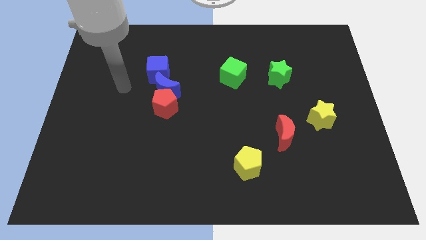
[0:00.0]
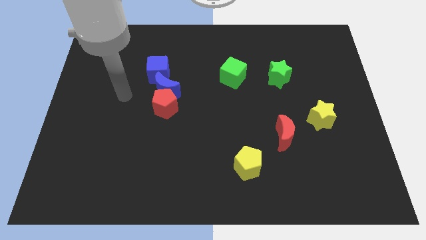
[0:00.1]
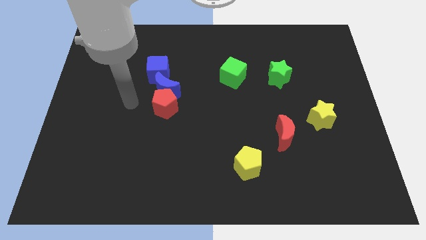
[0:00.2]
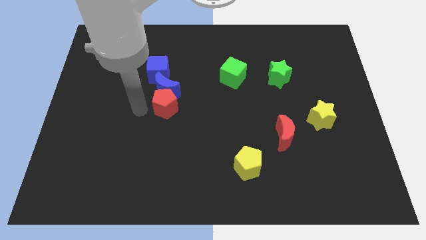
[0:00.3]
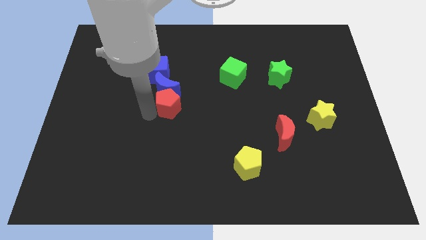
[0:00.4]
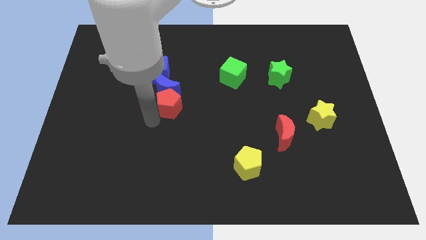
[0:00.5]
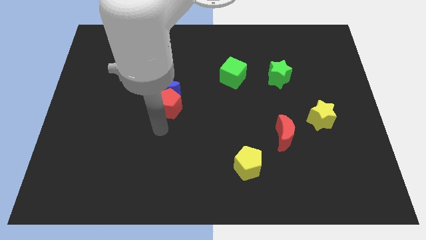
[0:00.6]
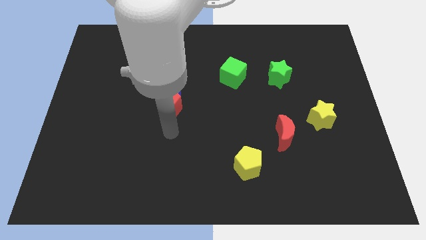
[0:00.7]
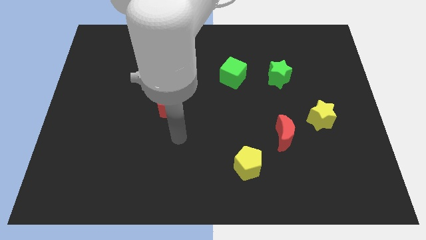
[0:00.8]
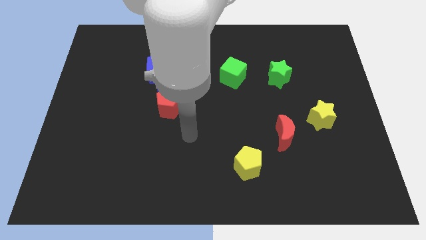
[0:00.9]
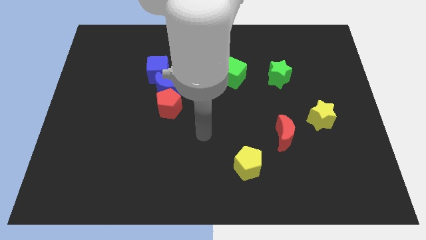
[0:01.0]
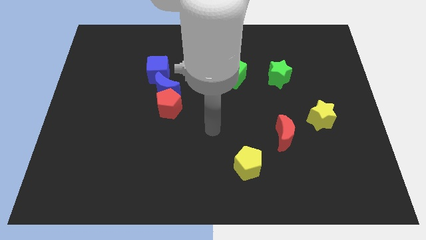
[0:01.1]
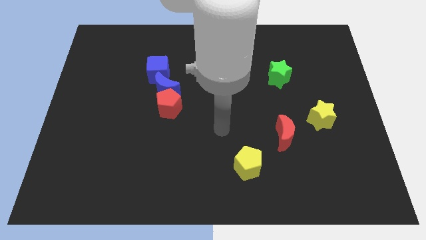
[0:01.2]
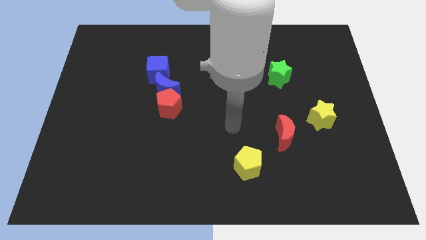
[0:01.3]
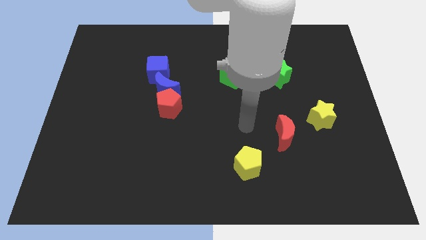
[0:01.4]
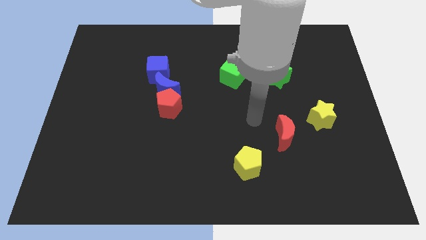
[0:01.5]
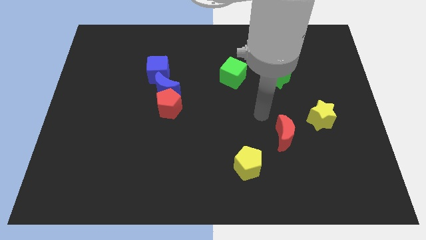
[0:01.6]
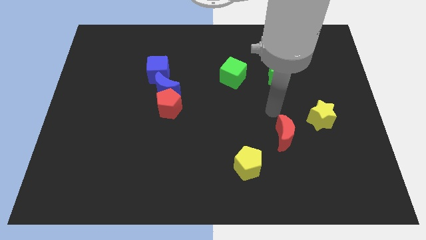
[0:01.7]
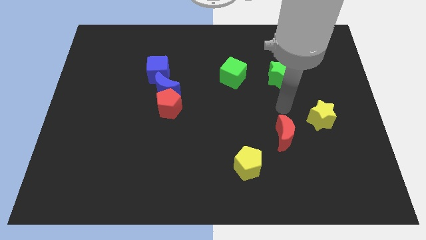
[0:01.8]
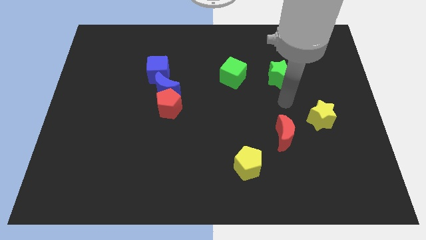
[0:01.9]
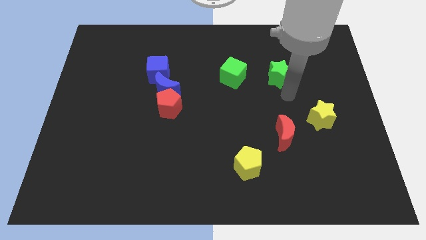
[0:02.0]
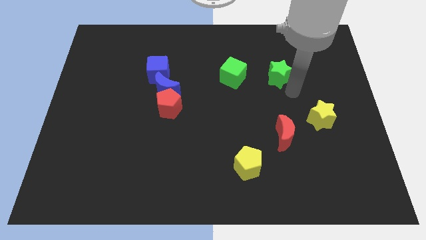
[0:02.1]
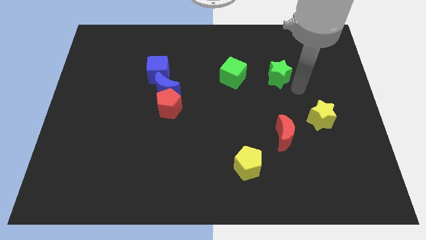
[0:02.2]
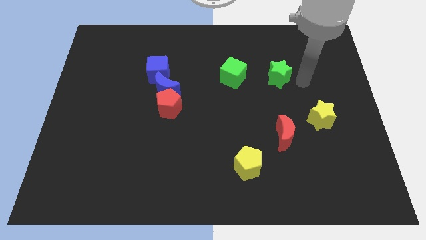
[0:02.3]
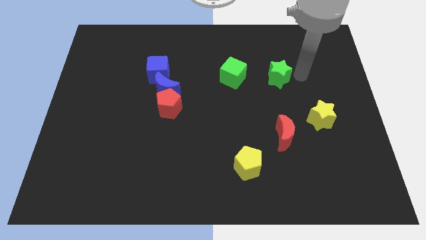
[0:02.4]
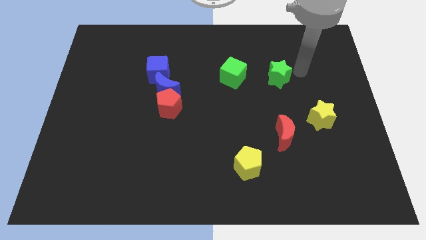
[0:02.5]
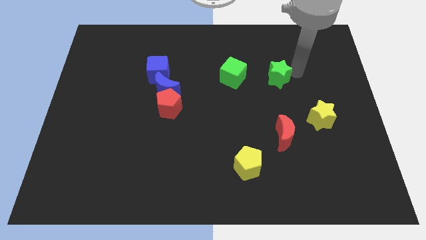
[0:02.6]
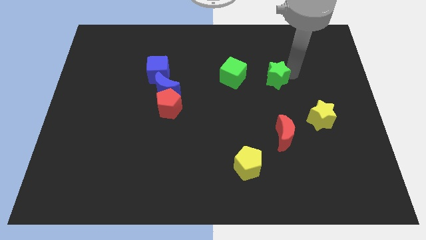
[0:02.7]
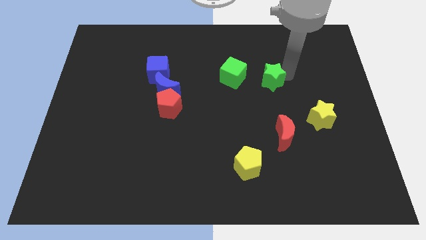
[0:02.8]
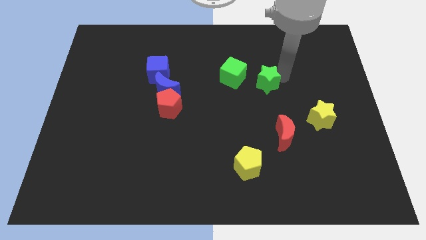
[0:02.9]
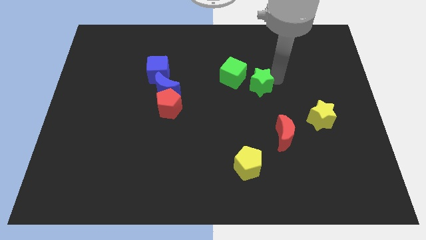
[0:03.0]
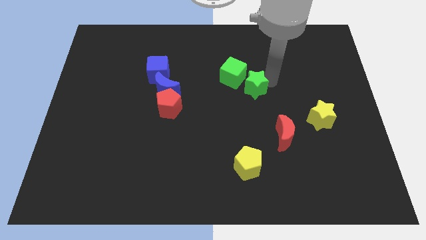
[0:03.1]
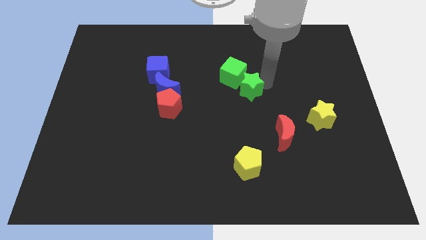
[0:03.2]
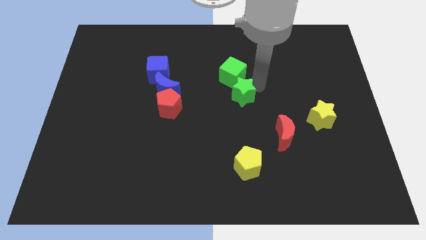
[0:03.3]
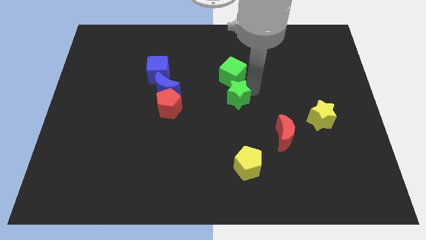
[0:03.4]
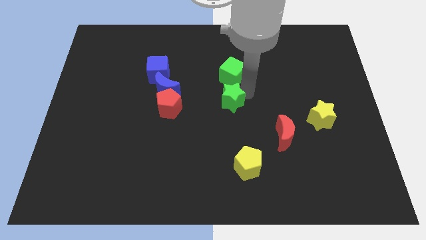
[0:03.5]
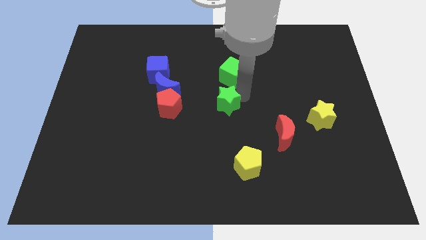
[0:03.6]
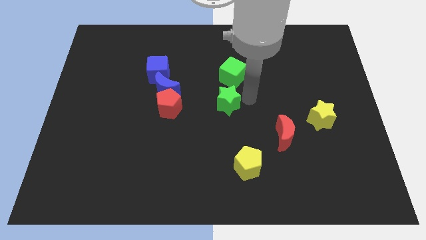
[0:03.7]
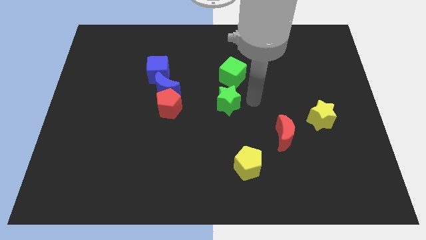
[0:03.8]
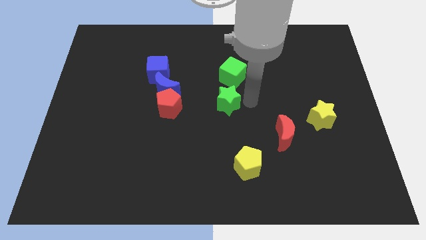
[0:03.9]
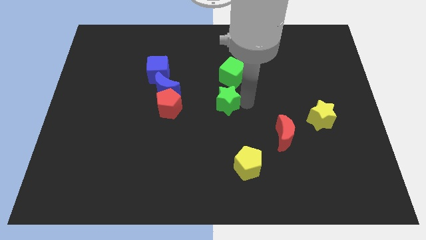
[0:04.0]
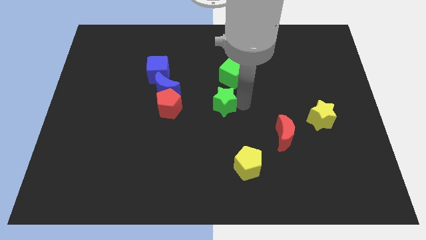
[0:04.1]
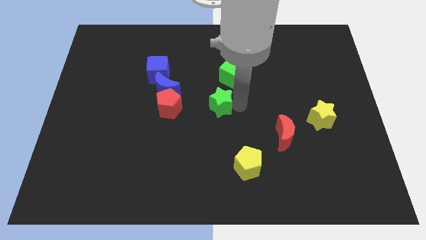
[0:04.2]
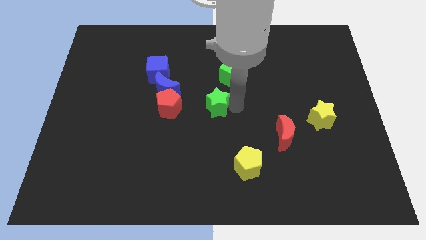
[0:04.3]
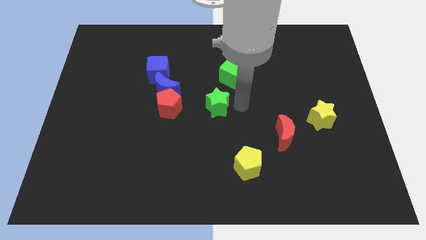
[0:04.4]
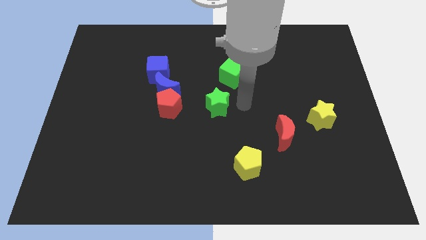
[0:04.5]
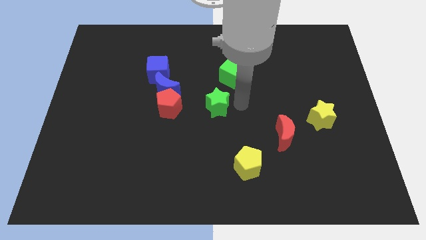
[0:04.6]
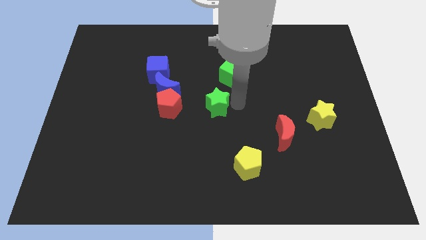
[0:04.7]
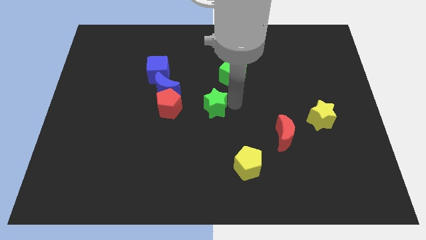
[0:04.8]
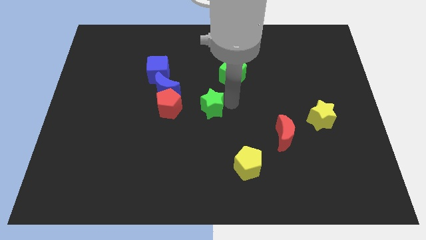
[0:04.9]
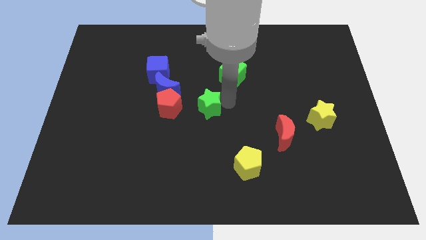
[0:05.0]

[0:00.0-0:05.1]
push the green star diagonally down and to the right of the blue moon

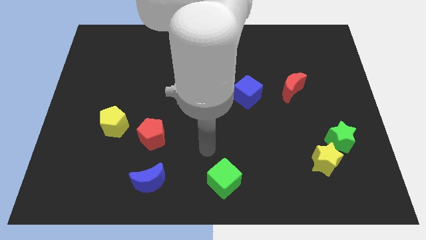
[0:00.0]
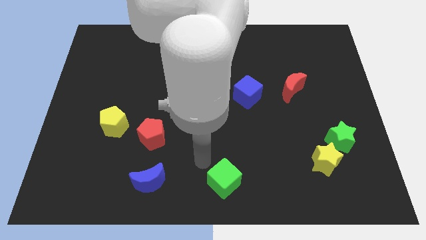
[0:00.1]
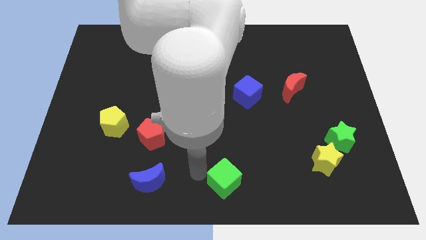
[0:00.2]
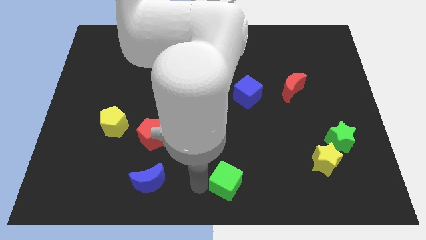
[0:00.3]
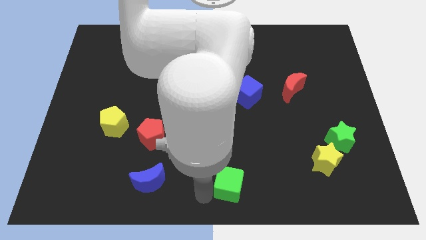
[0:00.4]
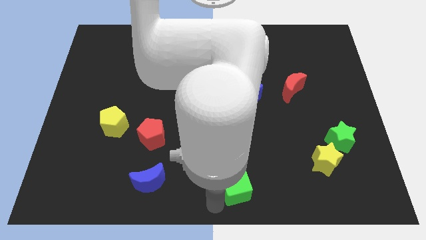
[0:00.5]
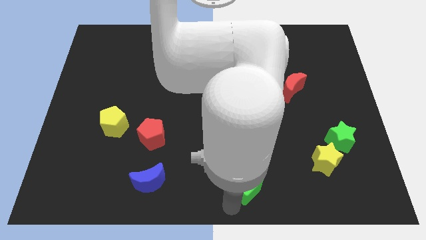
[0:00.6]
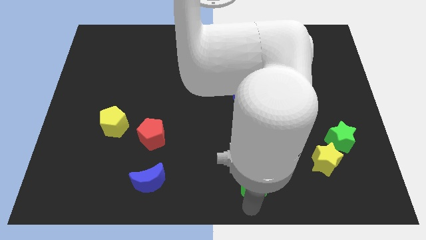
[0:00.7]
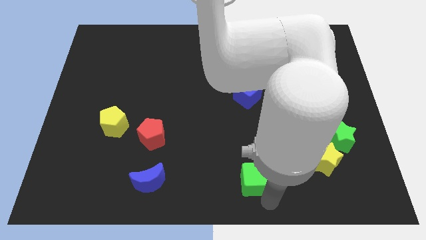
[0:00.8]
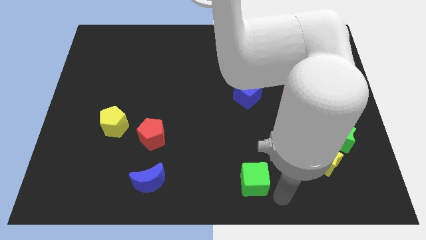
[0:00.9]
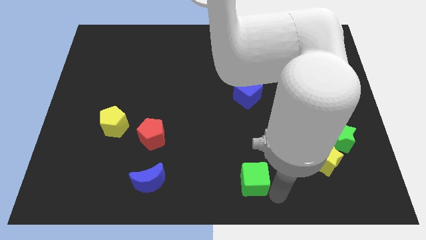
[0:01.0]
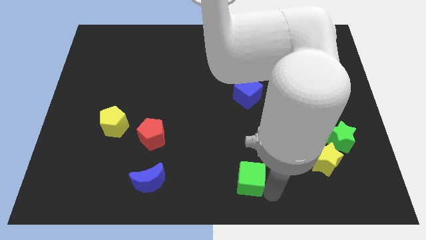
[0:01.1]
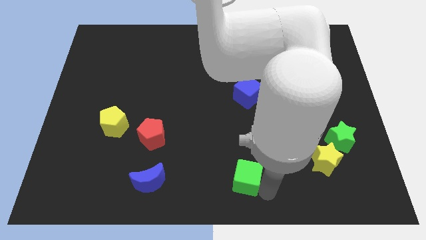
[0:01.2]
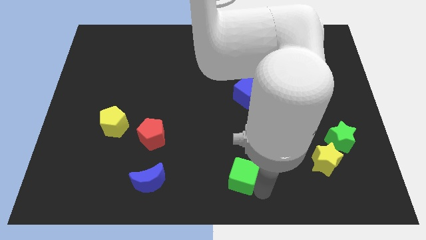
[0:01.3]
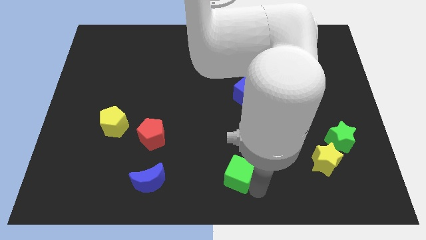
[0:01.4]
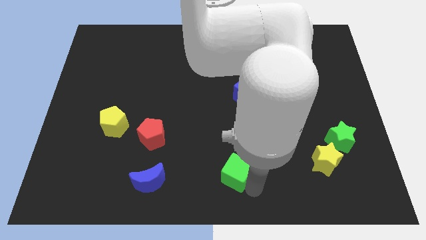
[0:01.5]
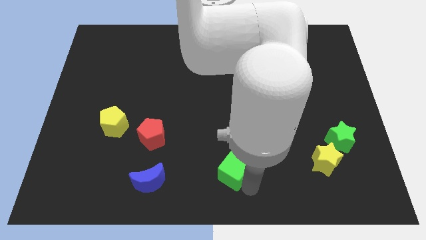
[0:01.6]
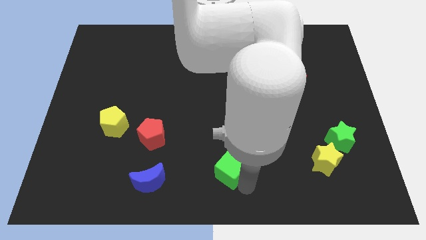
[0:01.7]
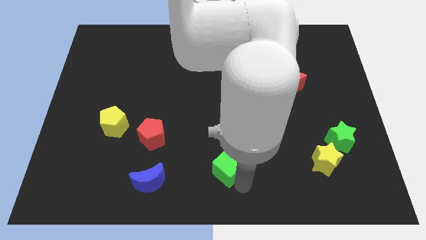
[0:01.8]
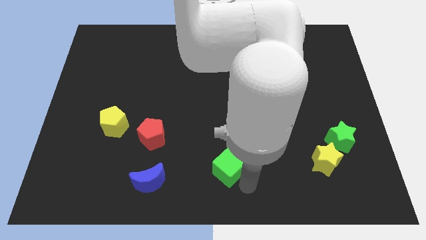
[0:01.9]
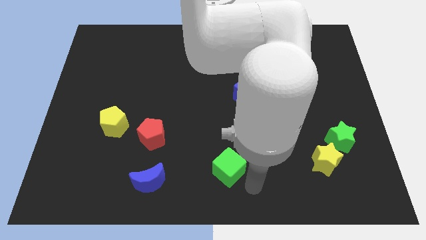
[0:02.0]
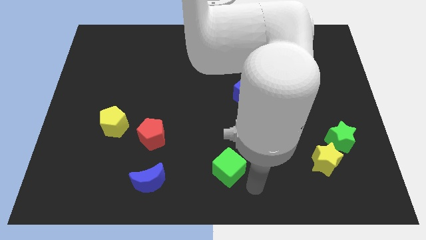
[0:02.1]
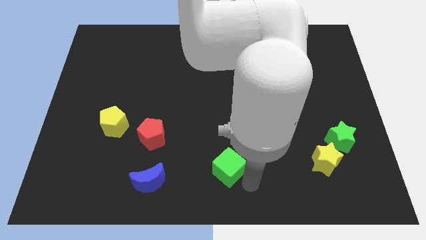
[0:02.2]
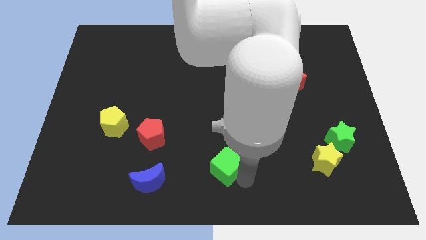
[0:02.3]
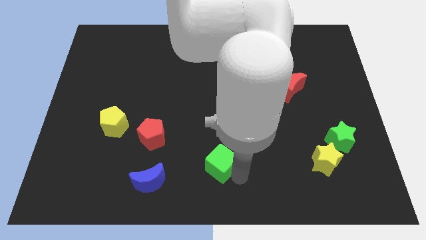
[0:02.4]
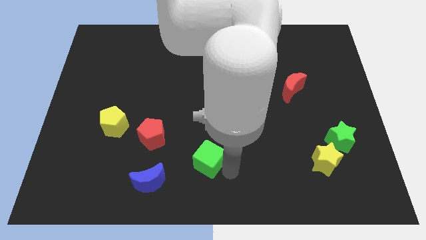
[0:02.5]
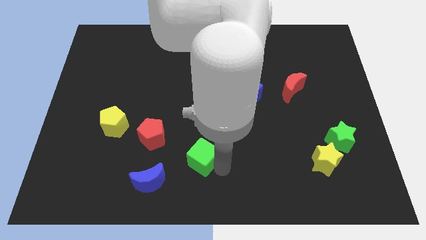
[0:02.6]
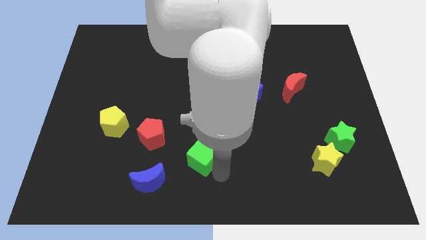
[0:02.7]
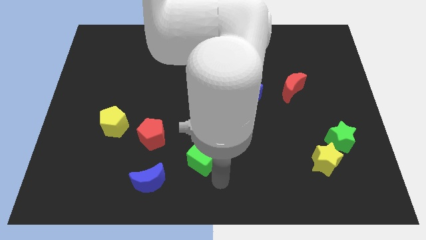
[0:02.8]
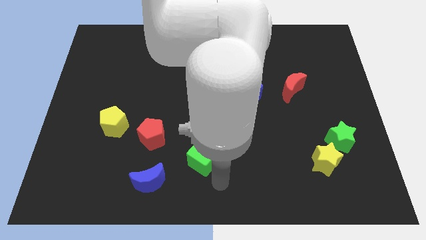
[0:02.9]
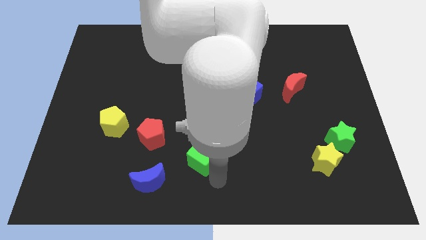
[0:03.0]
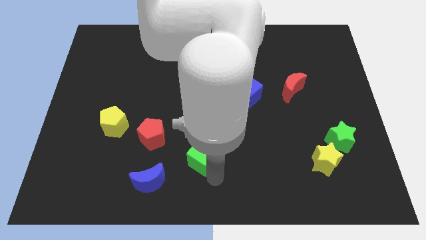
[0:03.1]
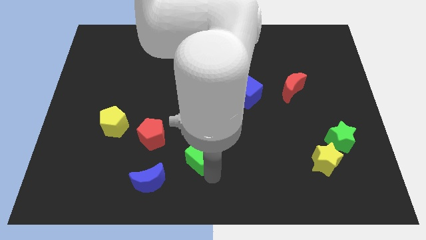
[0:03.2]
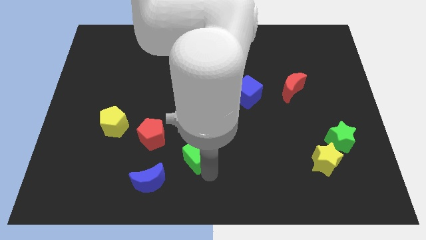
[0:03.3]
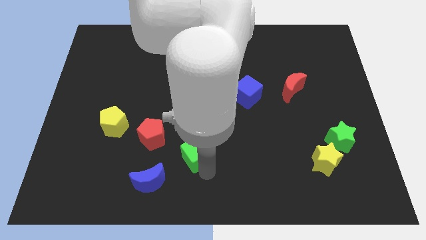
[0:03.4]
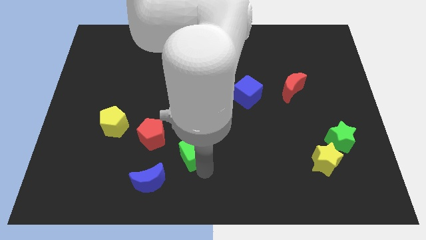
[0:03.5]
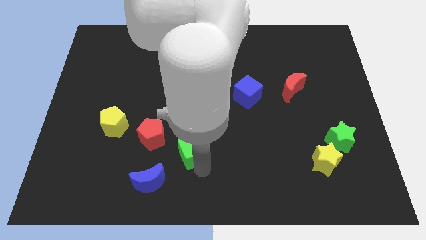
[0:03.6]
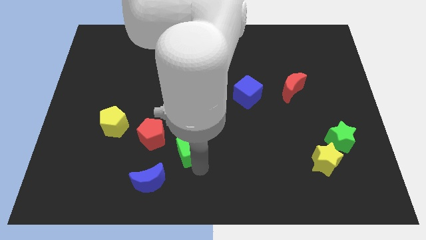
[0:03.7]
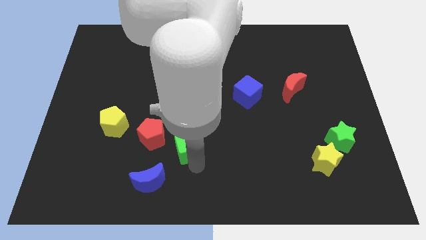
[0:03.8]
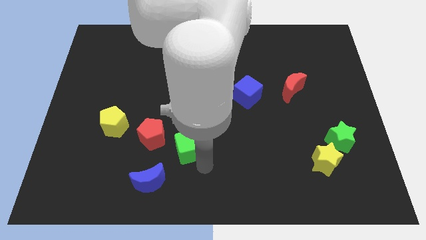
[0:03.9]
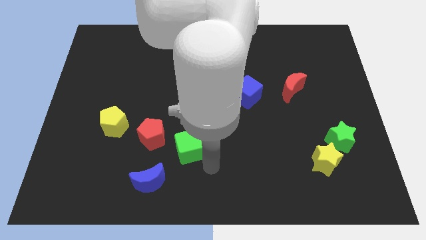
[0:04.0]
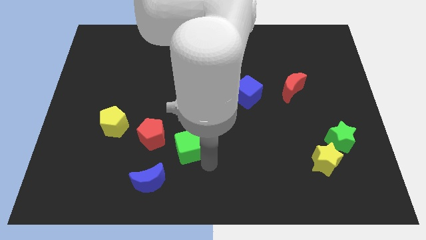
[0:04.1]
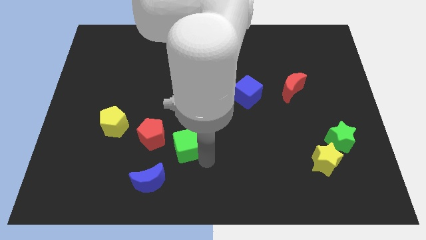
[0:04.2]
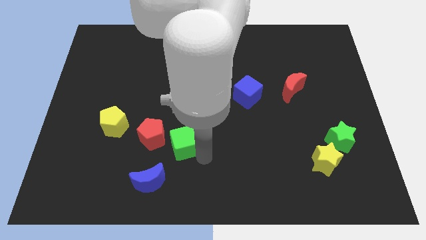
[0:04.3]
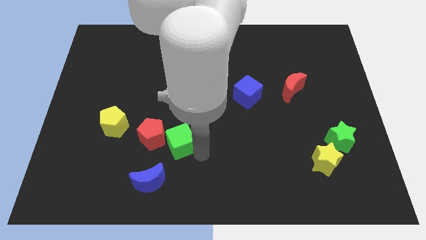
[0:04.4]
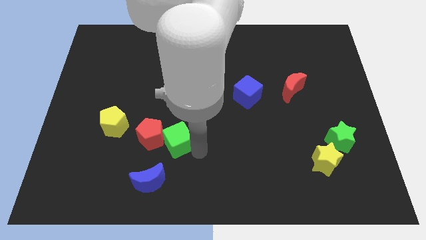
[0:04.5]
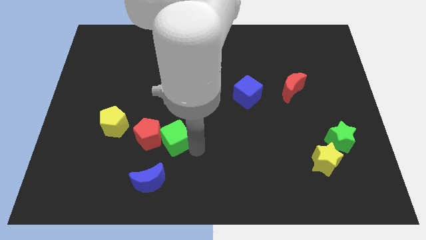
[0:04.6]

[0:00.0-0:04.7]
move the green cube to the right side of the yellow pentagon
